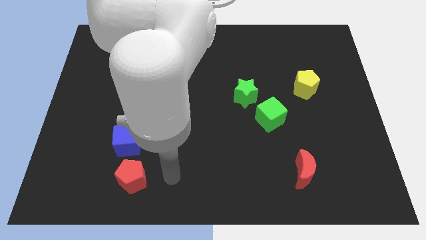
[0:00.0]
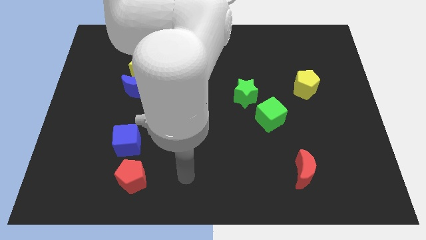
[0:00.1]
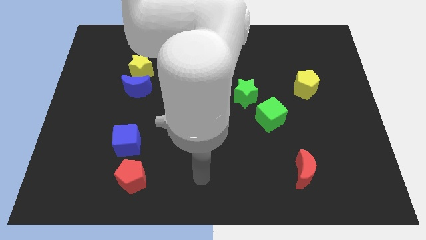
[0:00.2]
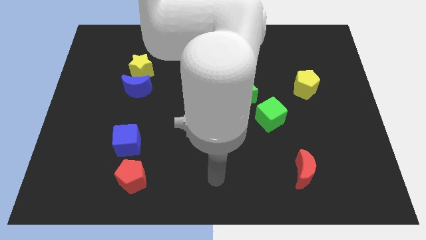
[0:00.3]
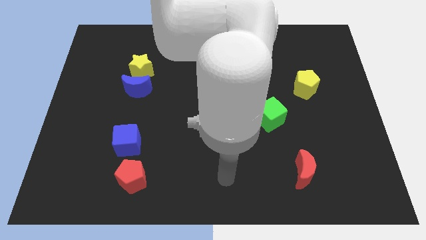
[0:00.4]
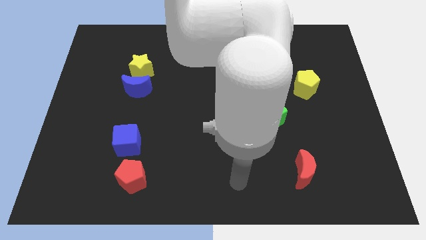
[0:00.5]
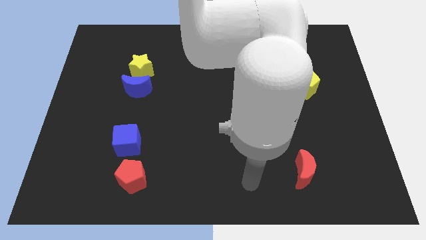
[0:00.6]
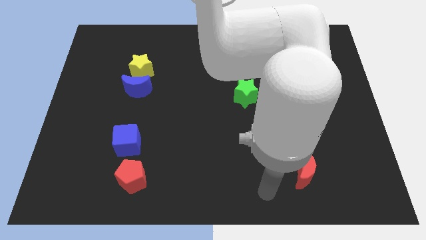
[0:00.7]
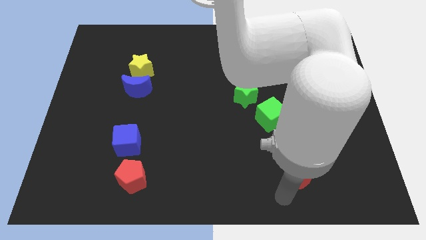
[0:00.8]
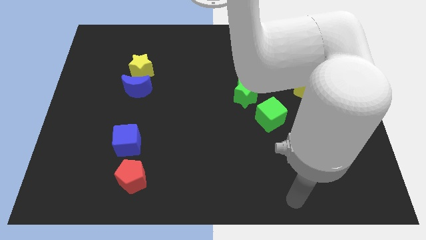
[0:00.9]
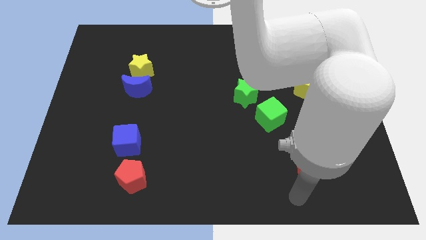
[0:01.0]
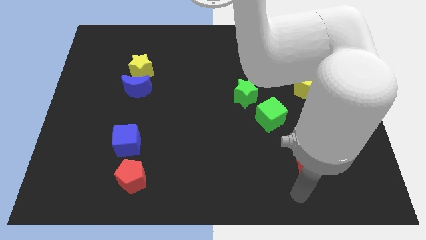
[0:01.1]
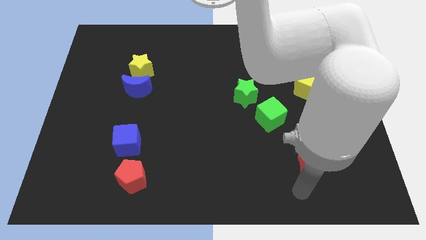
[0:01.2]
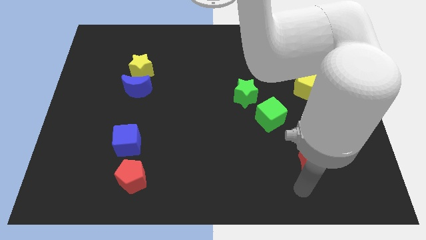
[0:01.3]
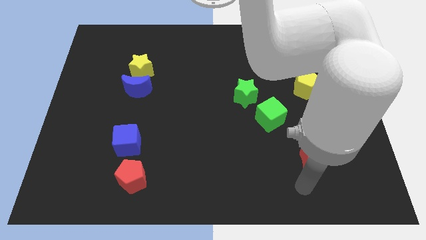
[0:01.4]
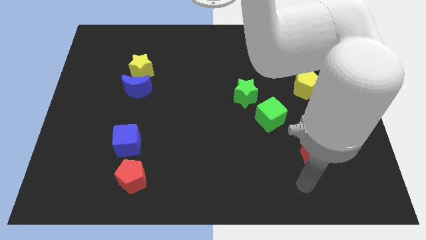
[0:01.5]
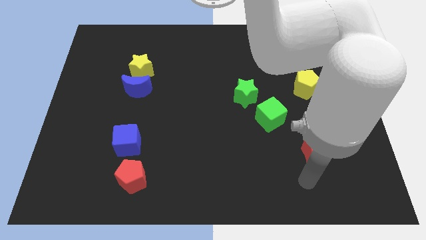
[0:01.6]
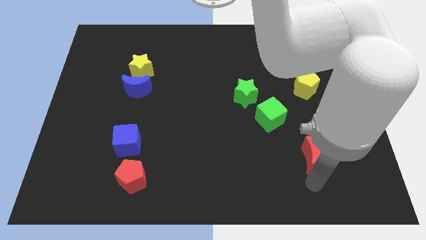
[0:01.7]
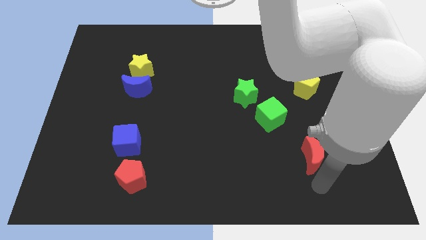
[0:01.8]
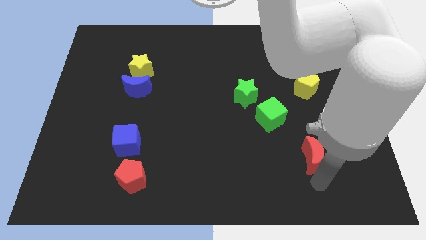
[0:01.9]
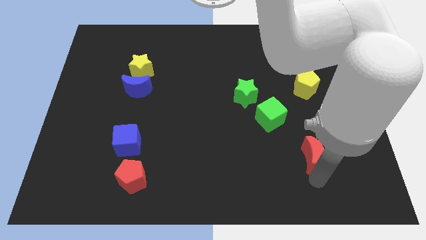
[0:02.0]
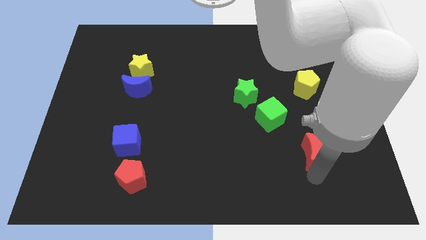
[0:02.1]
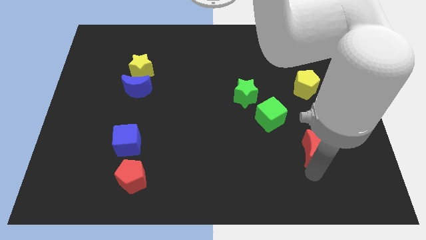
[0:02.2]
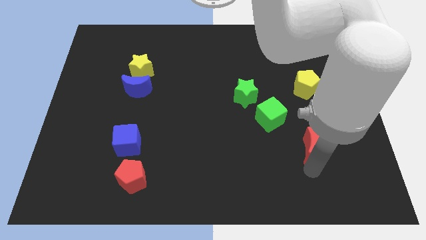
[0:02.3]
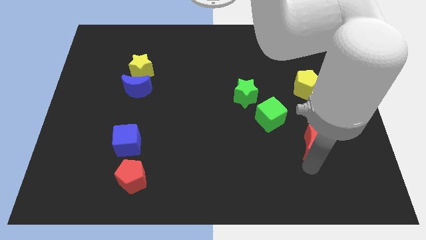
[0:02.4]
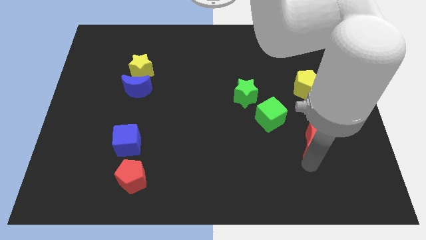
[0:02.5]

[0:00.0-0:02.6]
slide the red moon a bit upwards

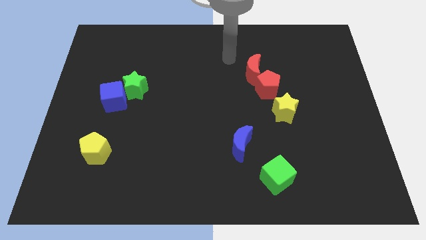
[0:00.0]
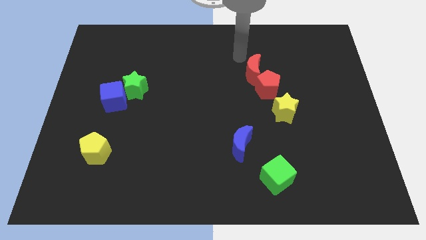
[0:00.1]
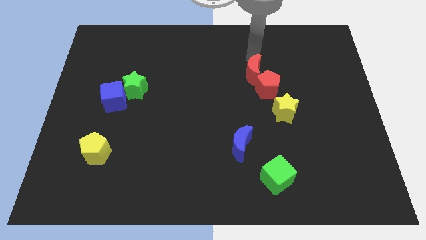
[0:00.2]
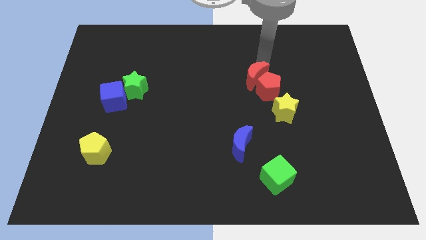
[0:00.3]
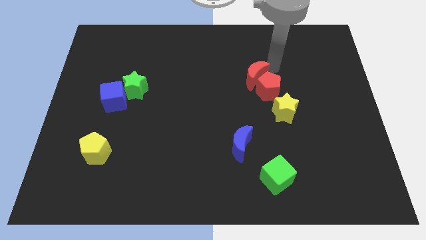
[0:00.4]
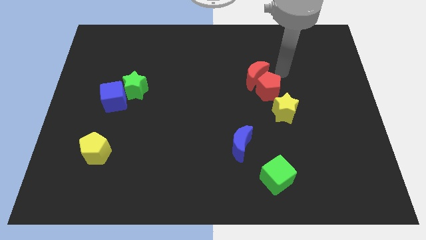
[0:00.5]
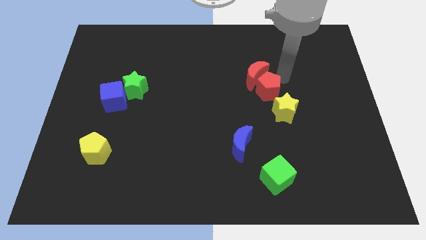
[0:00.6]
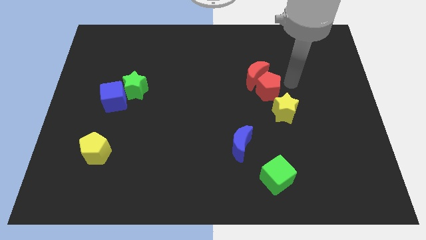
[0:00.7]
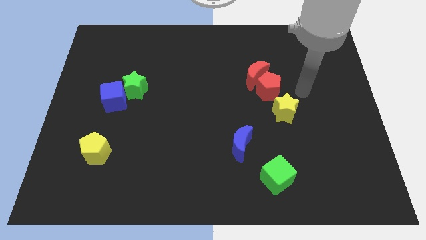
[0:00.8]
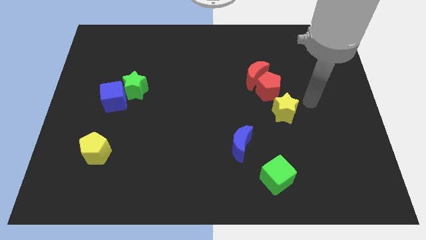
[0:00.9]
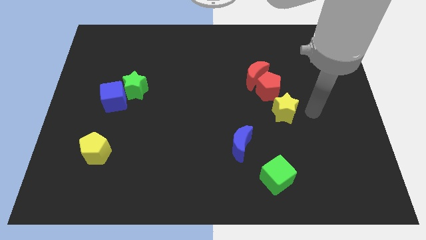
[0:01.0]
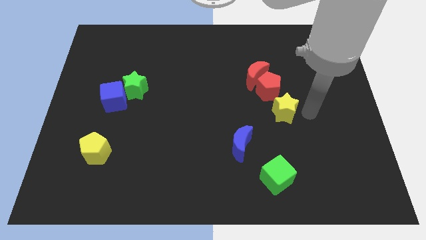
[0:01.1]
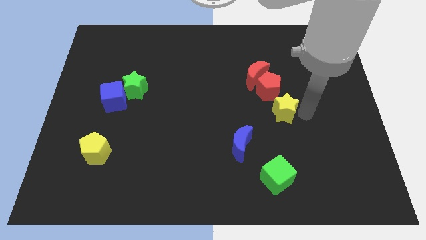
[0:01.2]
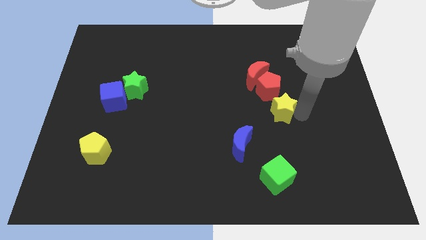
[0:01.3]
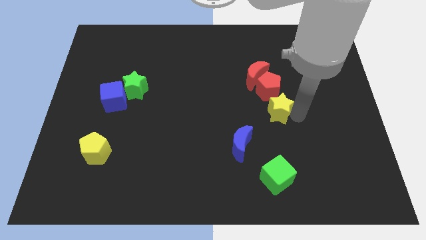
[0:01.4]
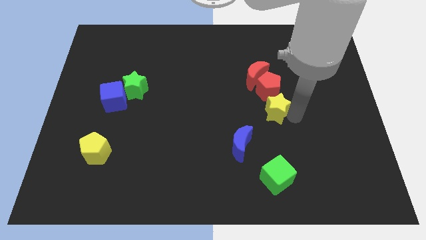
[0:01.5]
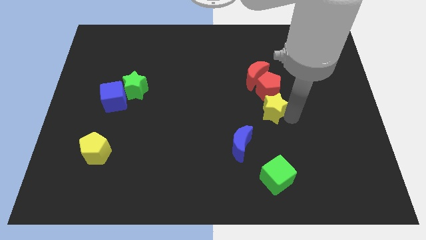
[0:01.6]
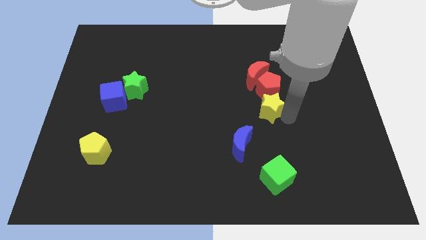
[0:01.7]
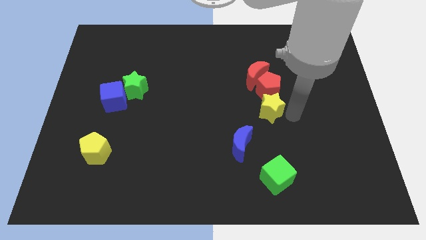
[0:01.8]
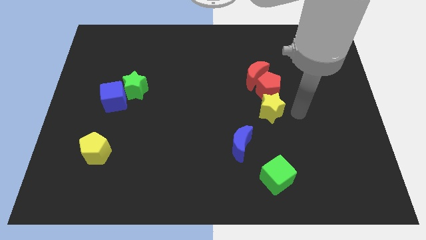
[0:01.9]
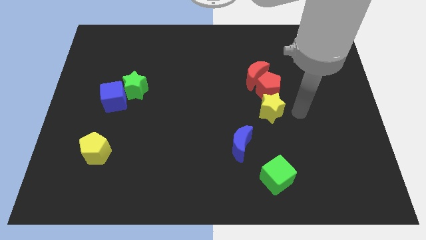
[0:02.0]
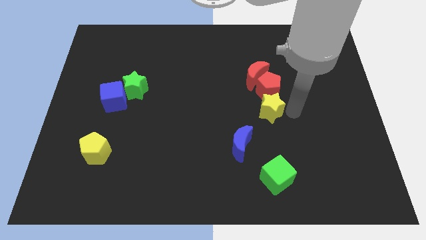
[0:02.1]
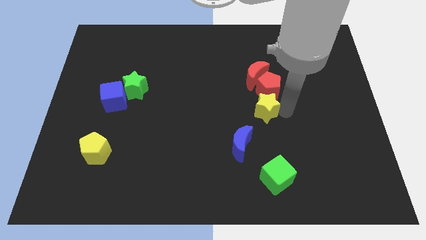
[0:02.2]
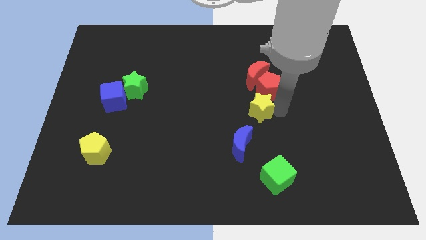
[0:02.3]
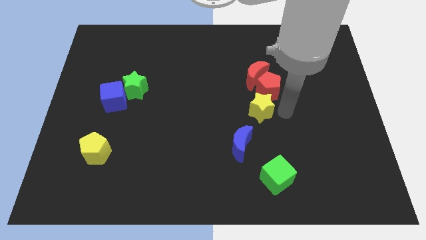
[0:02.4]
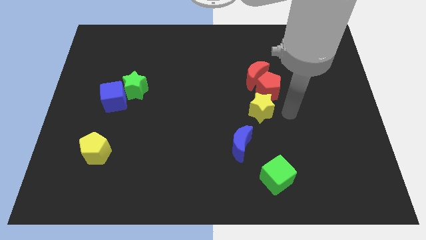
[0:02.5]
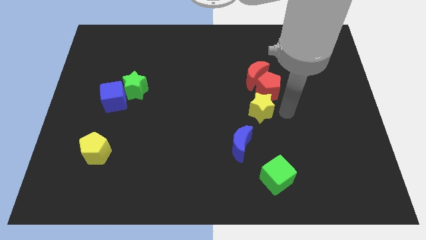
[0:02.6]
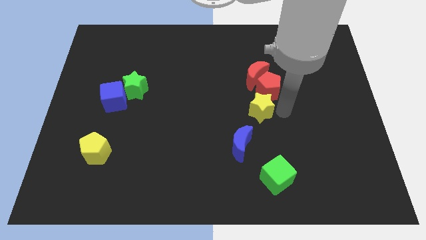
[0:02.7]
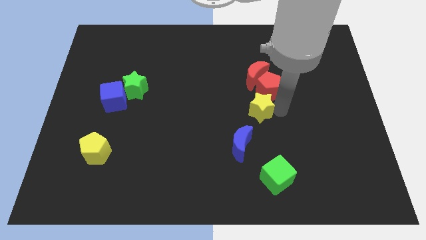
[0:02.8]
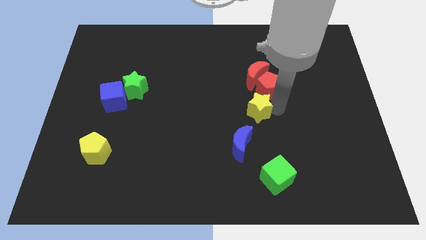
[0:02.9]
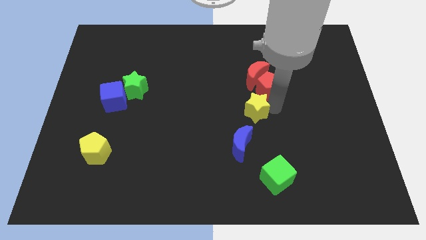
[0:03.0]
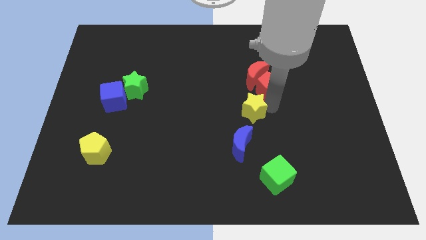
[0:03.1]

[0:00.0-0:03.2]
move the yellow star somewhat left

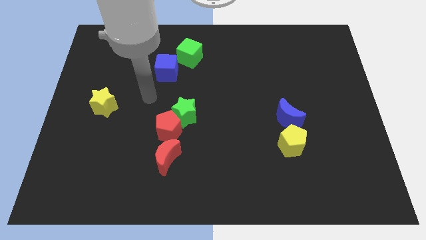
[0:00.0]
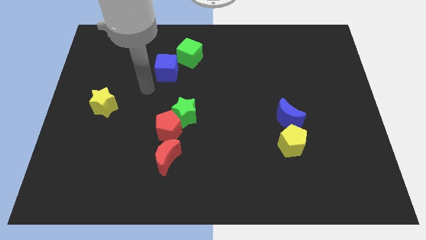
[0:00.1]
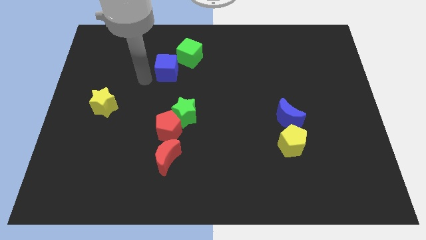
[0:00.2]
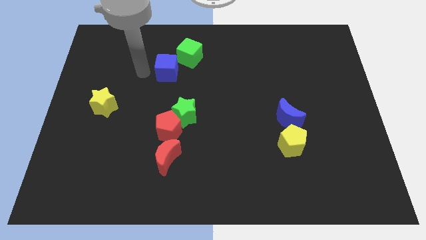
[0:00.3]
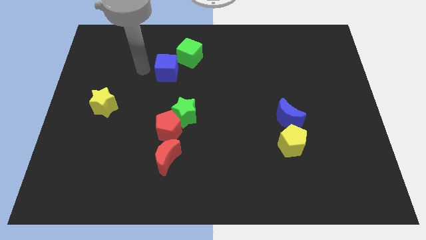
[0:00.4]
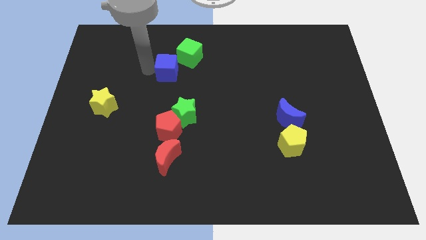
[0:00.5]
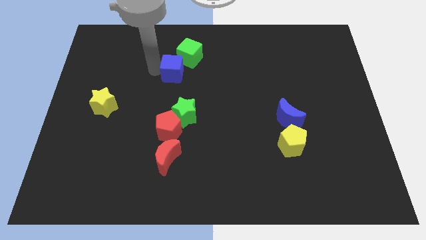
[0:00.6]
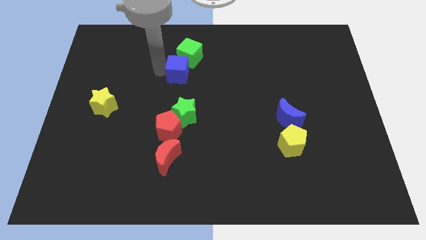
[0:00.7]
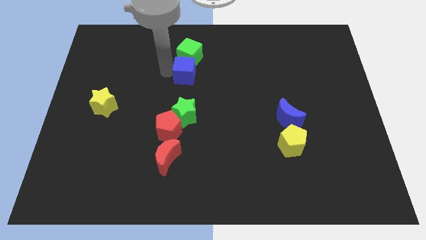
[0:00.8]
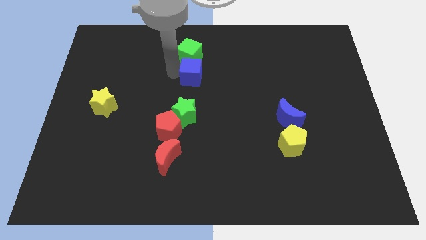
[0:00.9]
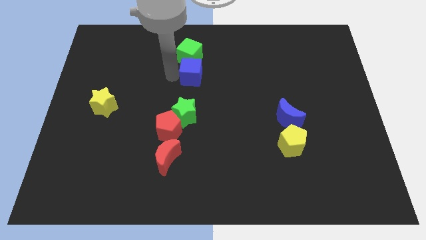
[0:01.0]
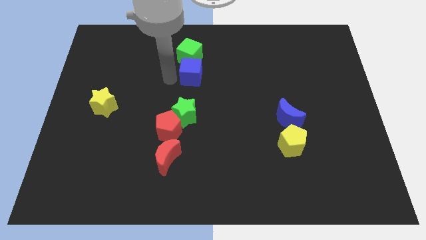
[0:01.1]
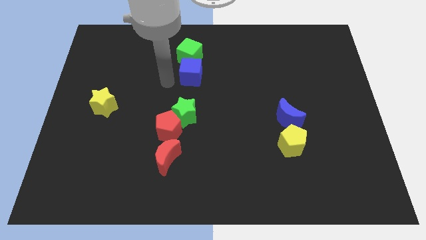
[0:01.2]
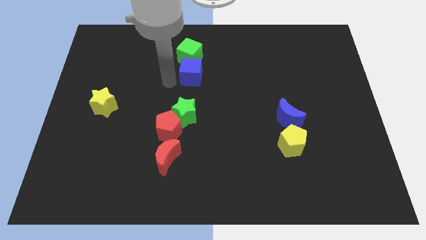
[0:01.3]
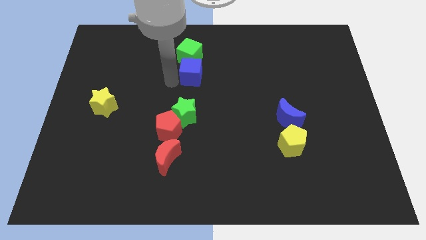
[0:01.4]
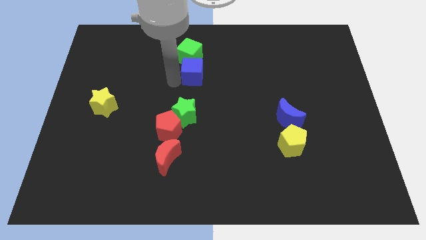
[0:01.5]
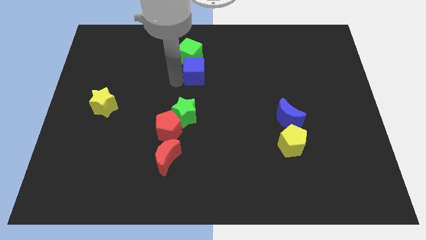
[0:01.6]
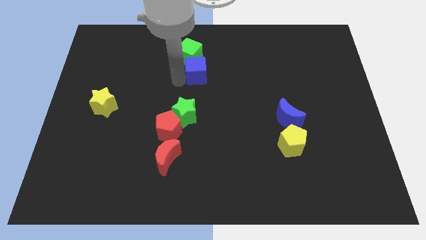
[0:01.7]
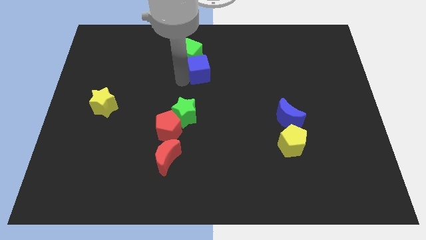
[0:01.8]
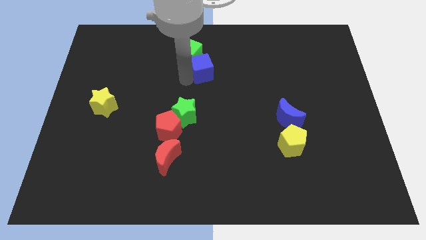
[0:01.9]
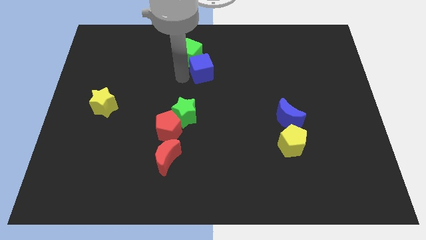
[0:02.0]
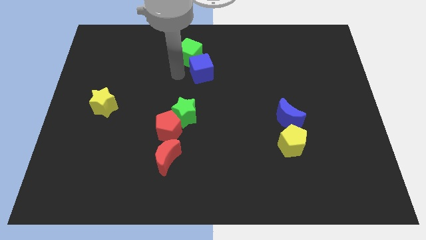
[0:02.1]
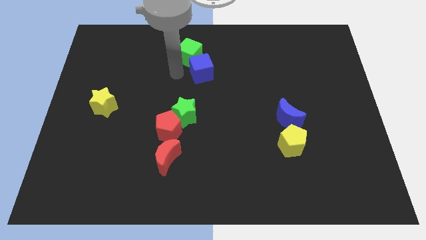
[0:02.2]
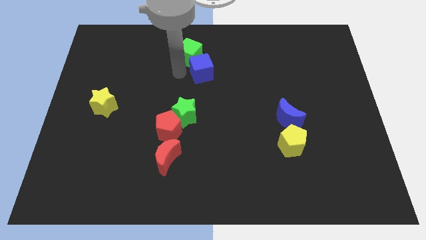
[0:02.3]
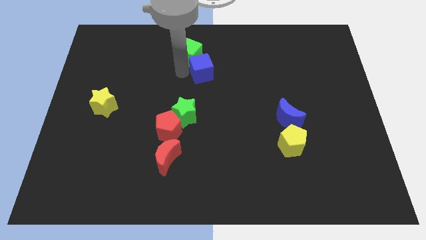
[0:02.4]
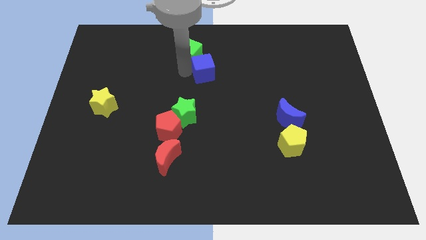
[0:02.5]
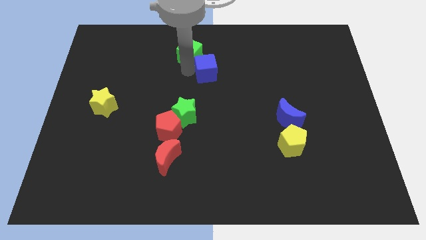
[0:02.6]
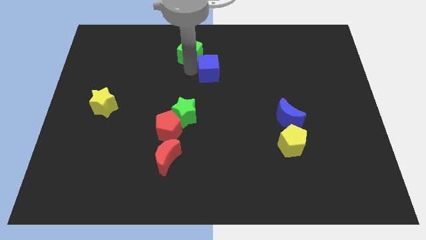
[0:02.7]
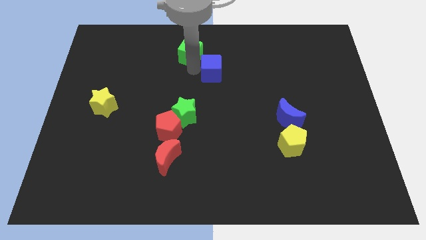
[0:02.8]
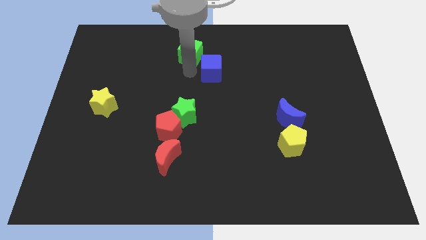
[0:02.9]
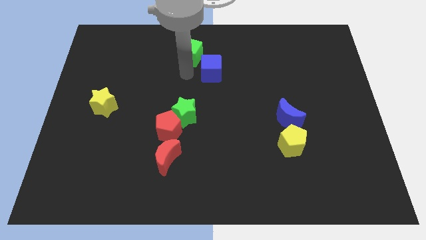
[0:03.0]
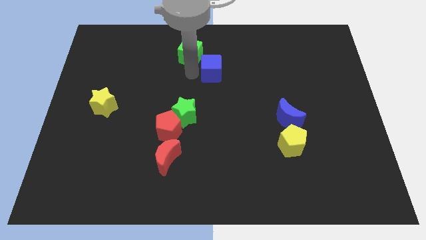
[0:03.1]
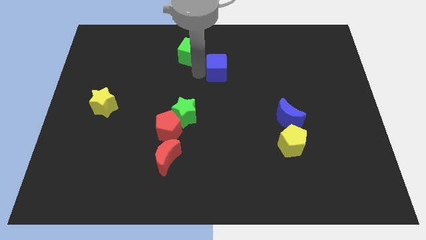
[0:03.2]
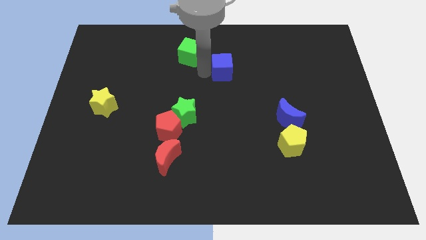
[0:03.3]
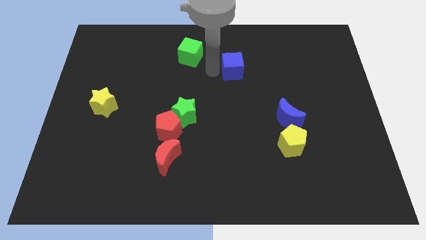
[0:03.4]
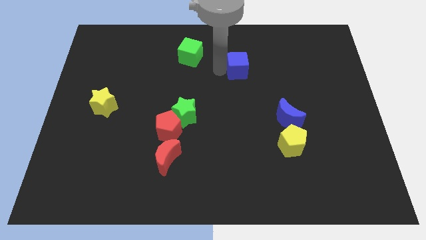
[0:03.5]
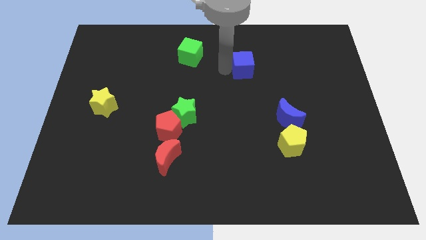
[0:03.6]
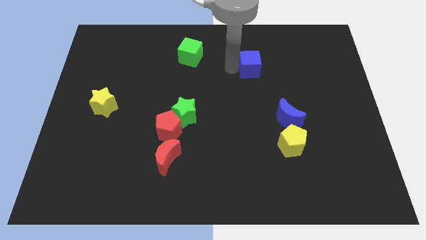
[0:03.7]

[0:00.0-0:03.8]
move the blue cube to the right
